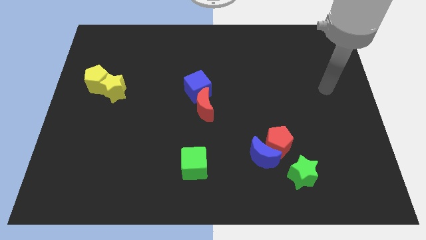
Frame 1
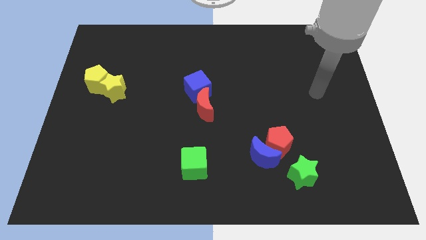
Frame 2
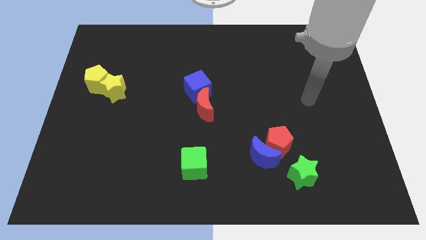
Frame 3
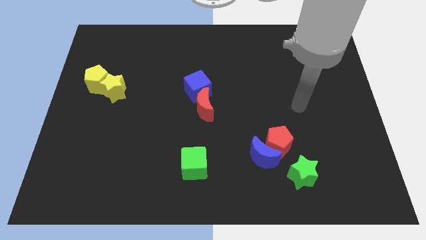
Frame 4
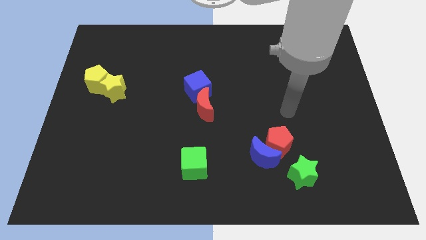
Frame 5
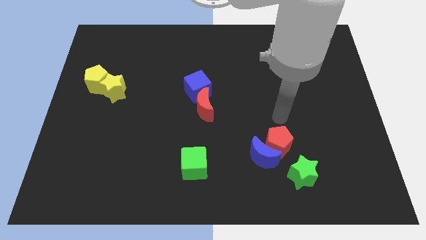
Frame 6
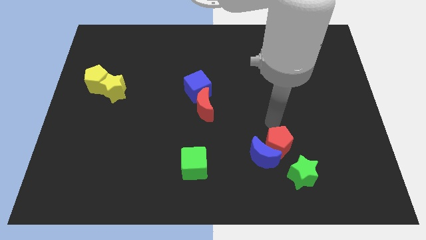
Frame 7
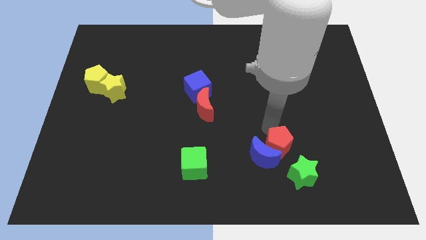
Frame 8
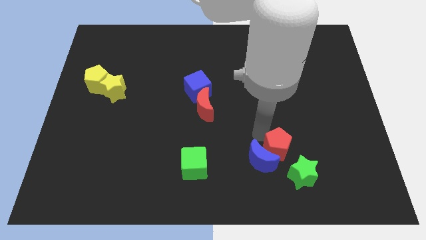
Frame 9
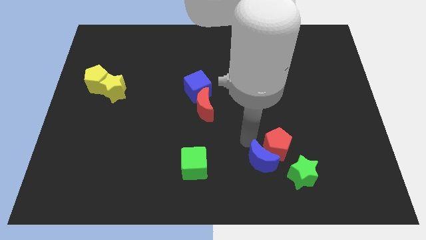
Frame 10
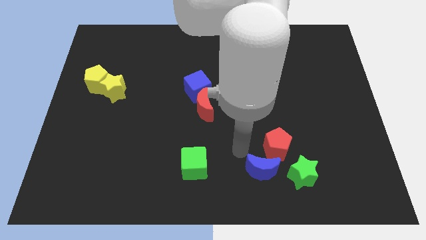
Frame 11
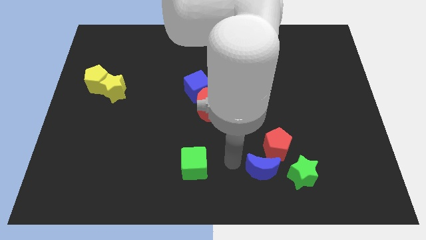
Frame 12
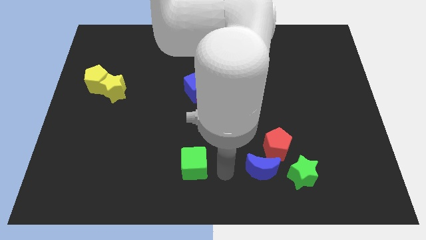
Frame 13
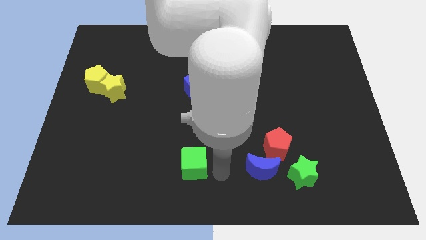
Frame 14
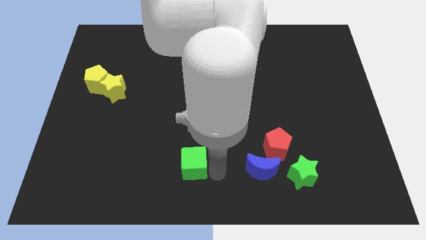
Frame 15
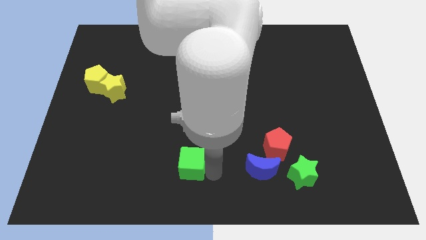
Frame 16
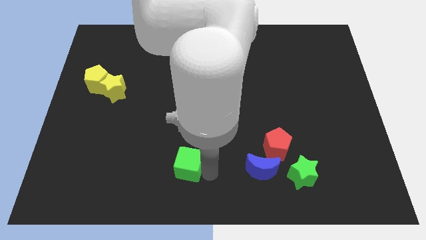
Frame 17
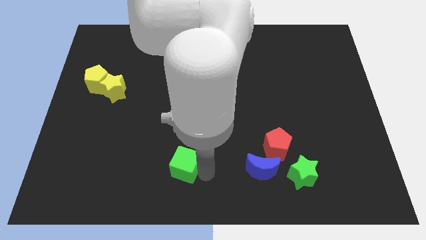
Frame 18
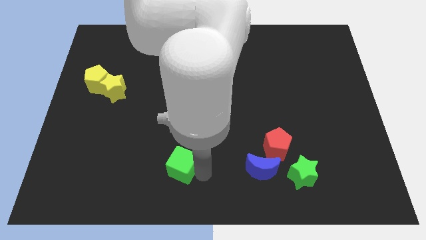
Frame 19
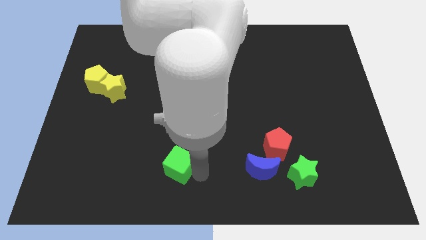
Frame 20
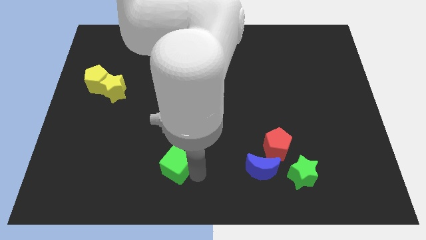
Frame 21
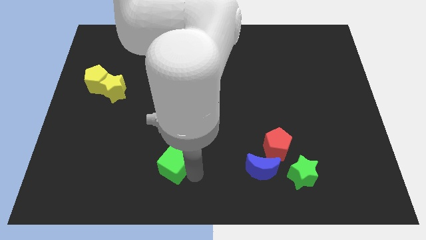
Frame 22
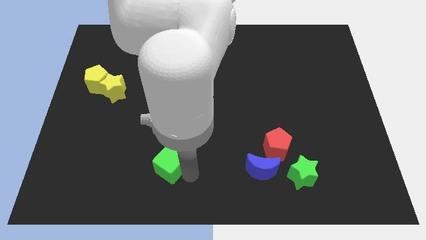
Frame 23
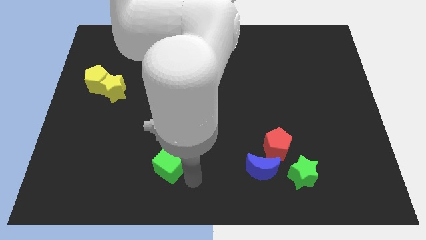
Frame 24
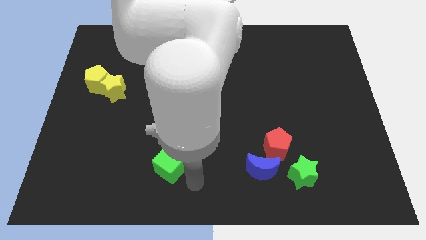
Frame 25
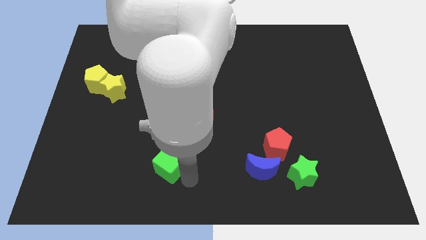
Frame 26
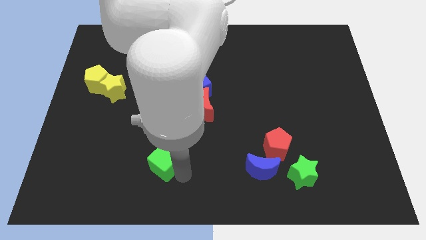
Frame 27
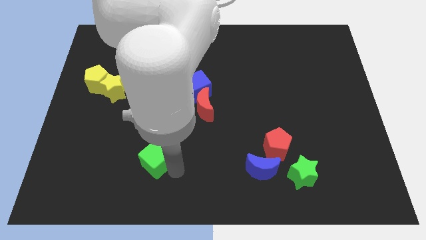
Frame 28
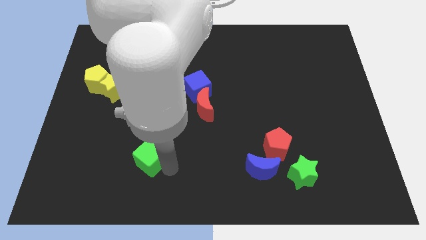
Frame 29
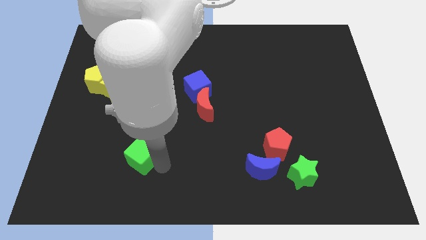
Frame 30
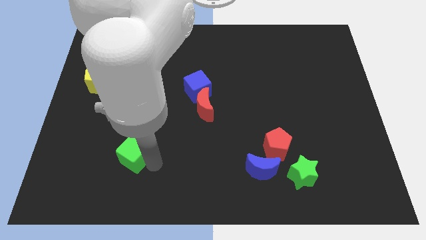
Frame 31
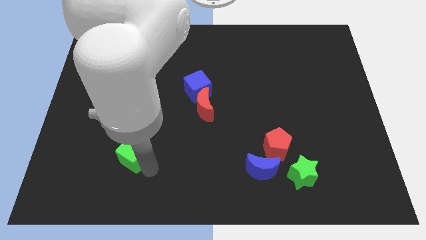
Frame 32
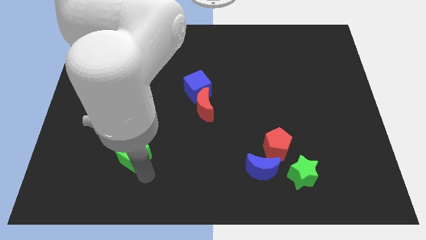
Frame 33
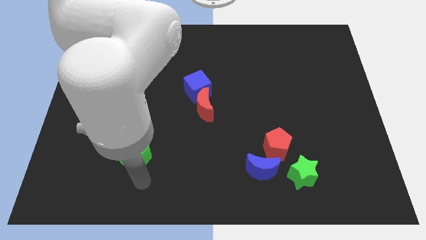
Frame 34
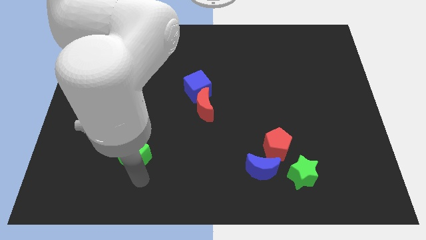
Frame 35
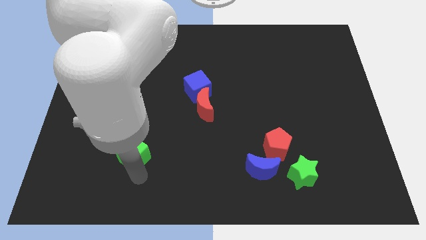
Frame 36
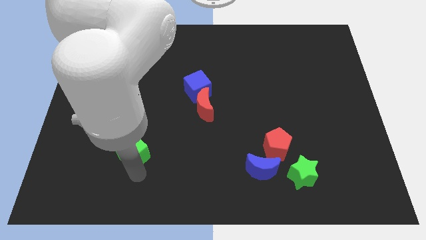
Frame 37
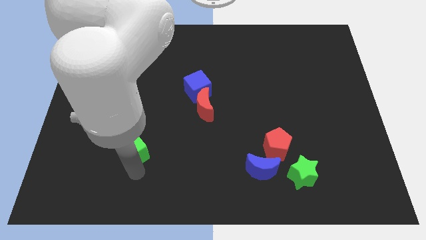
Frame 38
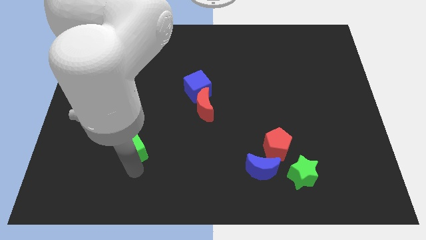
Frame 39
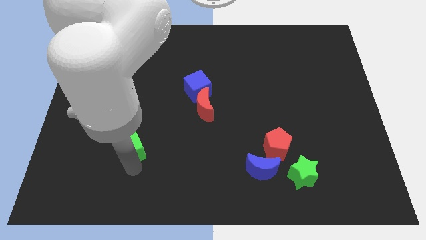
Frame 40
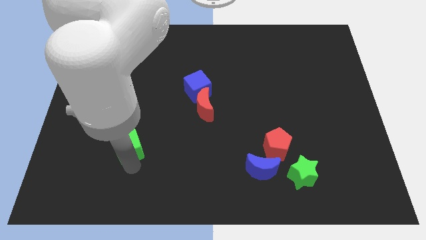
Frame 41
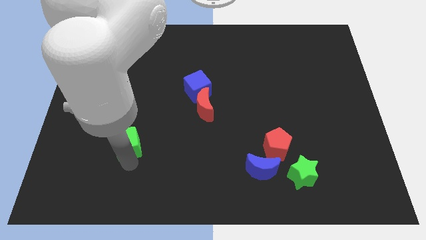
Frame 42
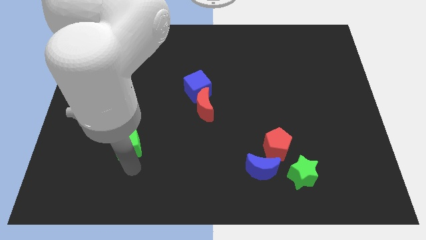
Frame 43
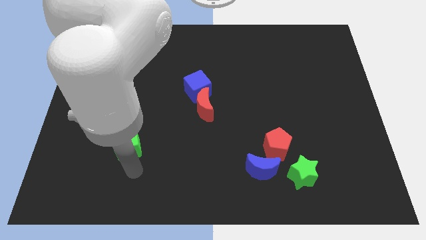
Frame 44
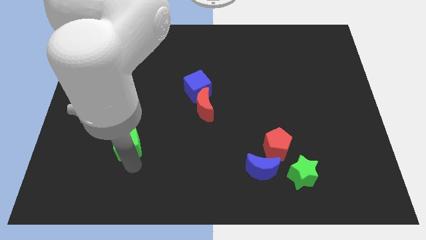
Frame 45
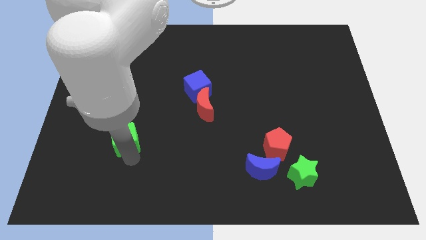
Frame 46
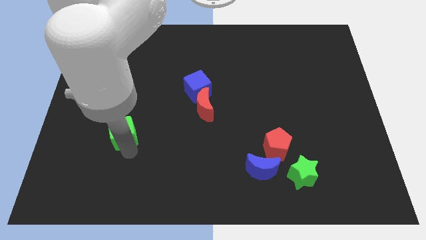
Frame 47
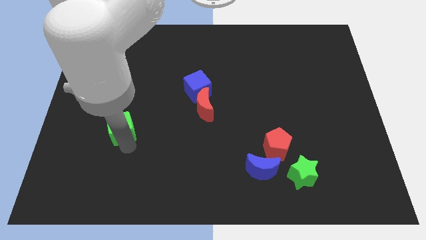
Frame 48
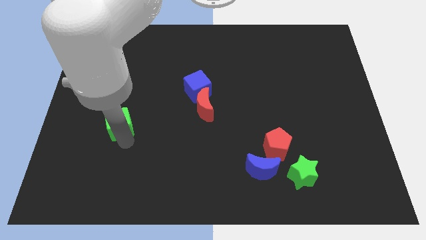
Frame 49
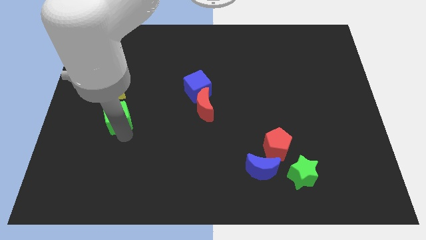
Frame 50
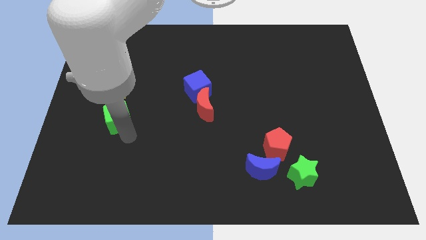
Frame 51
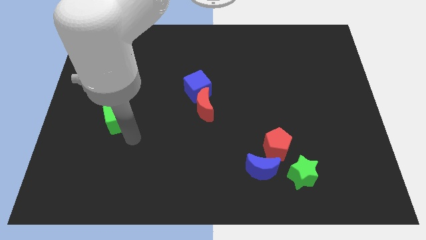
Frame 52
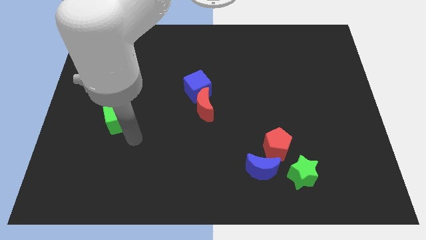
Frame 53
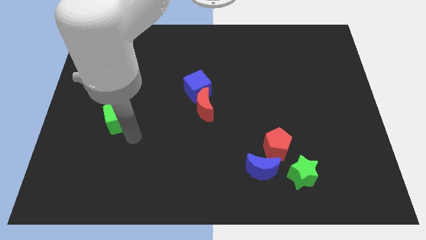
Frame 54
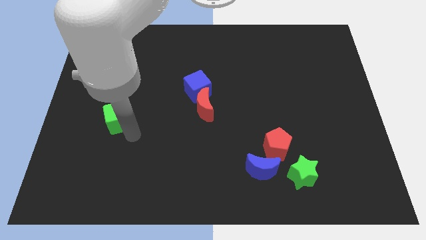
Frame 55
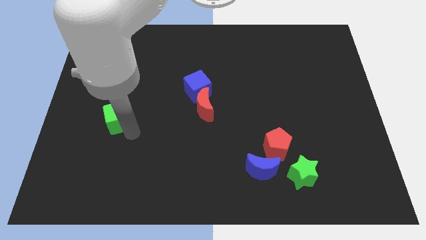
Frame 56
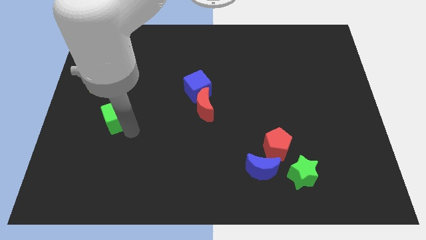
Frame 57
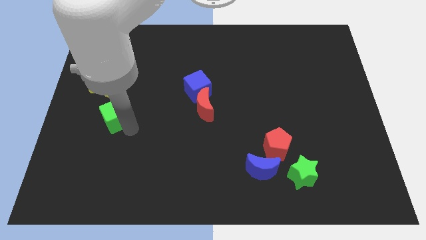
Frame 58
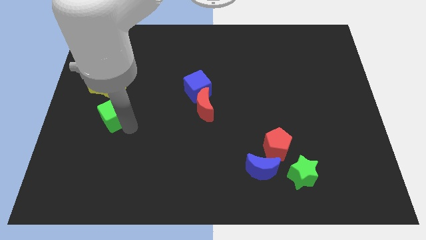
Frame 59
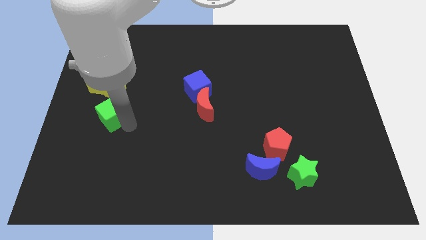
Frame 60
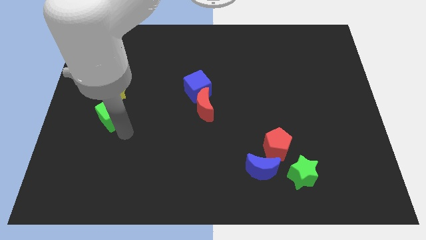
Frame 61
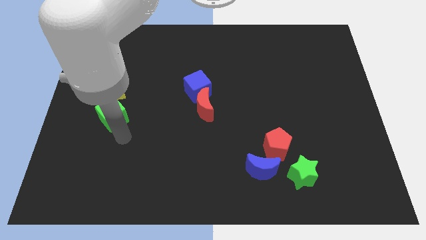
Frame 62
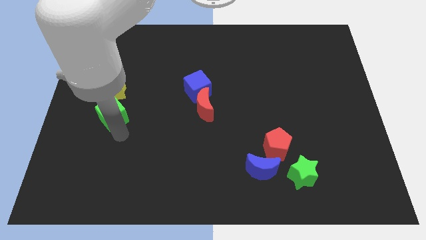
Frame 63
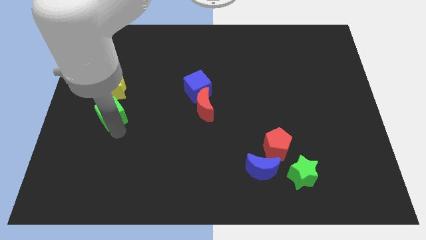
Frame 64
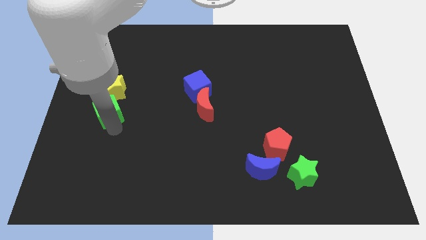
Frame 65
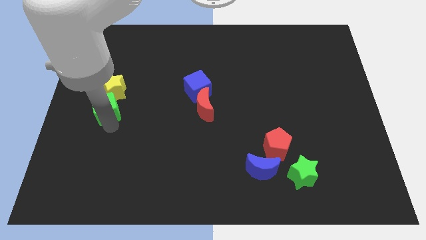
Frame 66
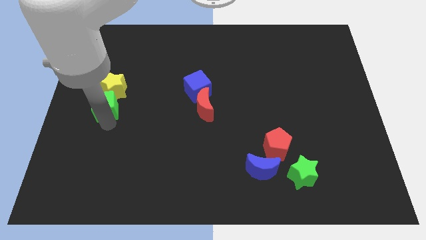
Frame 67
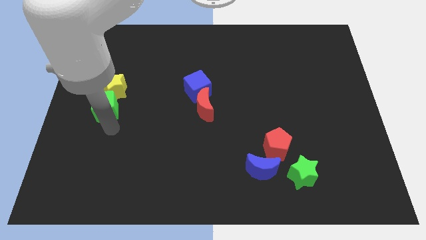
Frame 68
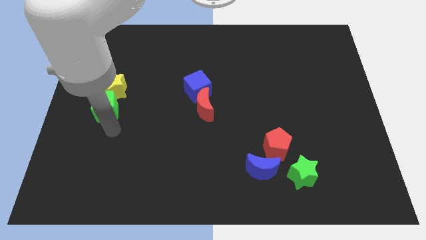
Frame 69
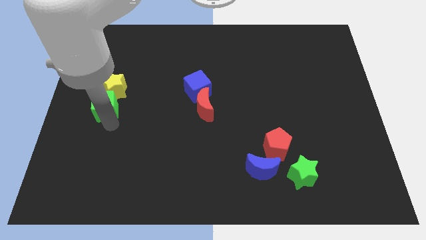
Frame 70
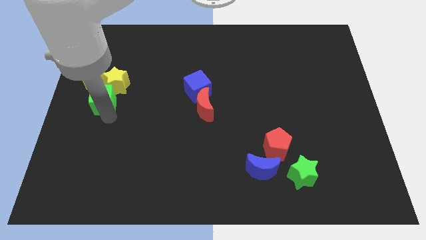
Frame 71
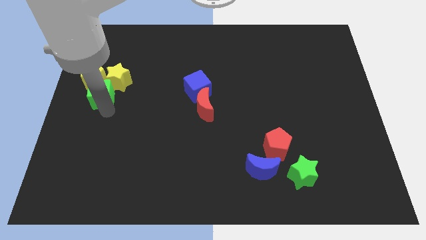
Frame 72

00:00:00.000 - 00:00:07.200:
put the green cube towards the yellow pentagon
